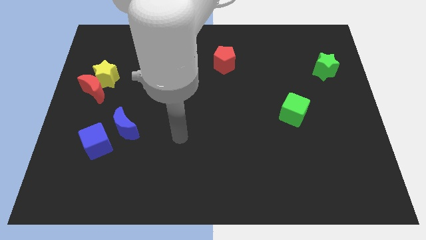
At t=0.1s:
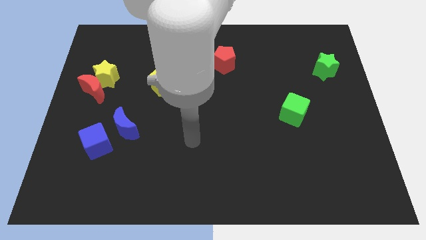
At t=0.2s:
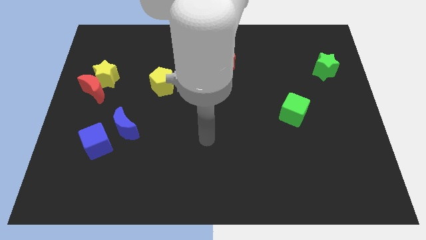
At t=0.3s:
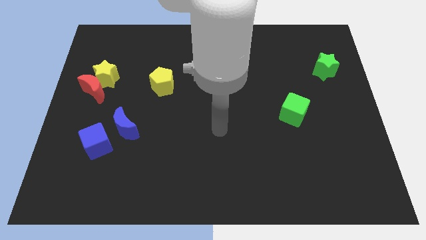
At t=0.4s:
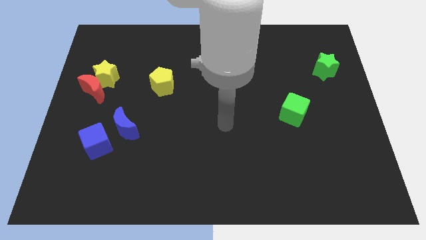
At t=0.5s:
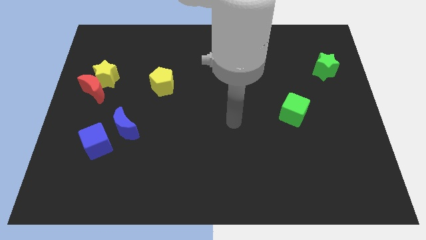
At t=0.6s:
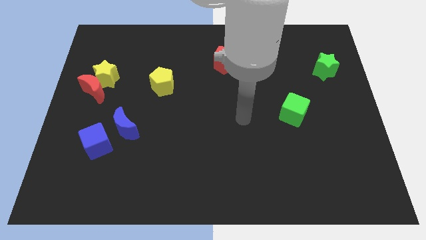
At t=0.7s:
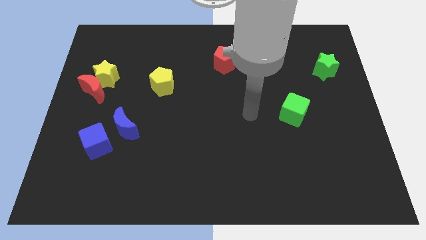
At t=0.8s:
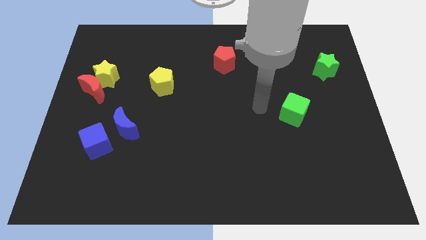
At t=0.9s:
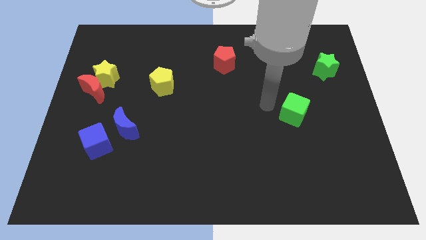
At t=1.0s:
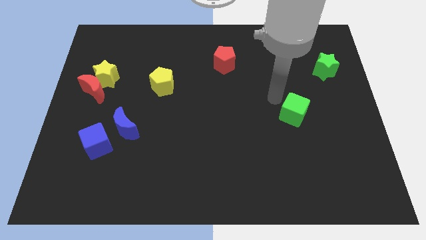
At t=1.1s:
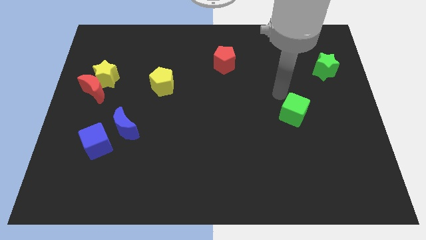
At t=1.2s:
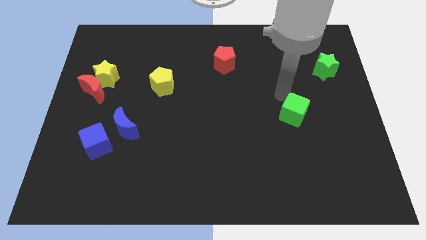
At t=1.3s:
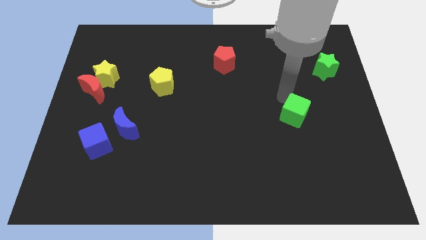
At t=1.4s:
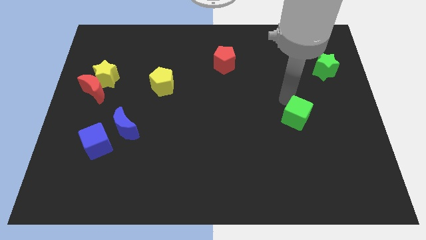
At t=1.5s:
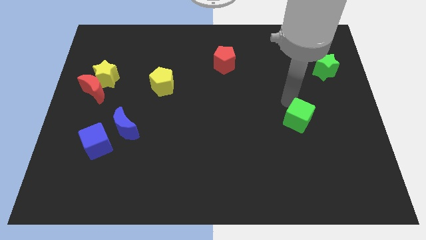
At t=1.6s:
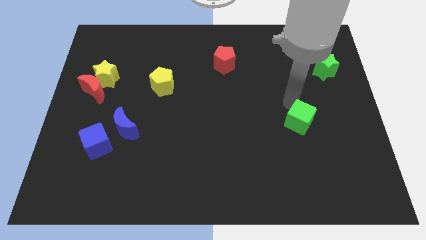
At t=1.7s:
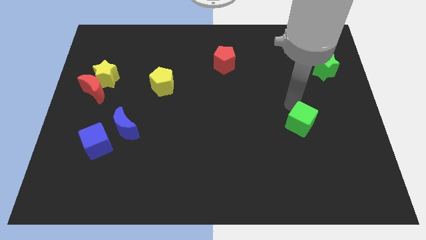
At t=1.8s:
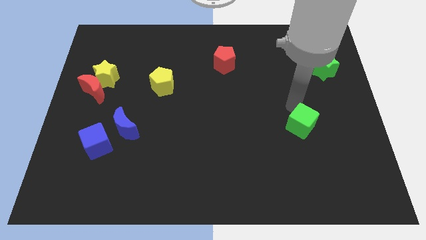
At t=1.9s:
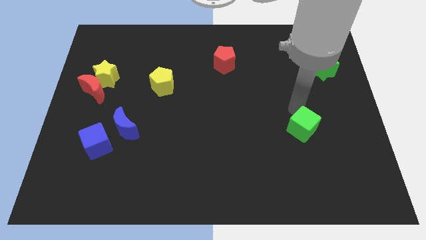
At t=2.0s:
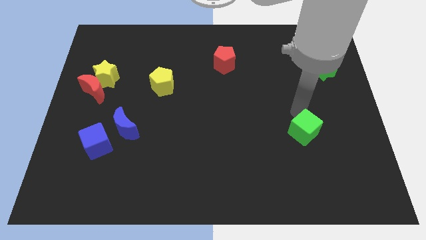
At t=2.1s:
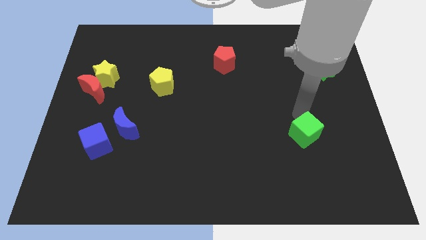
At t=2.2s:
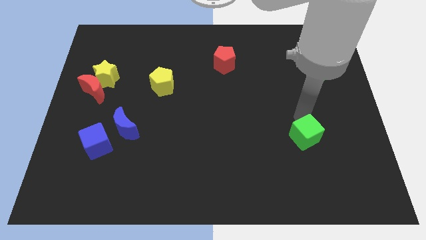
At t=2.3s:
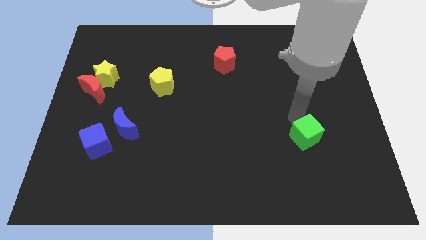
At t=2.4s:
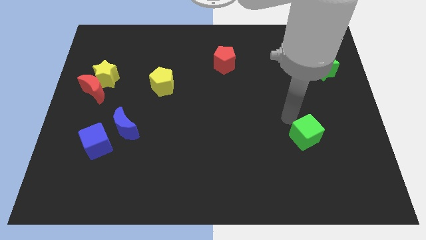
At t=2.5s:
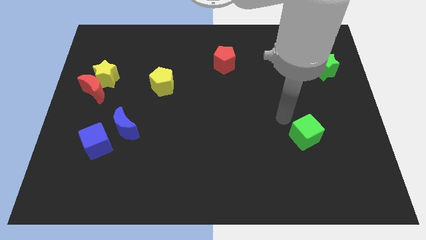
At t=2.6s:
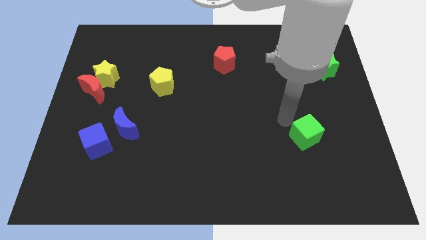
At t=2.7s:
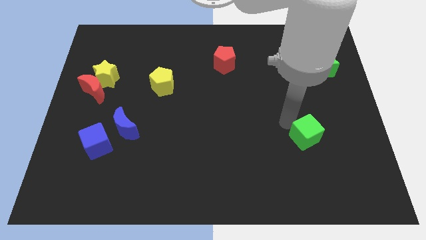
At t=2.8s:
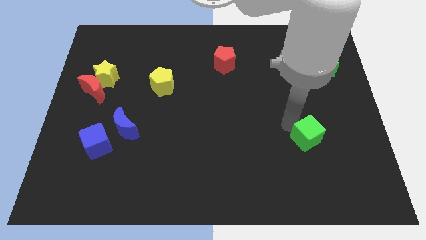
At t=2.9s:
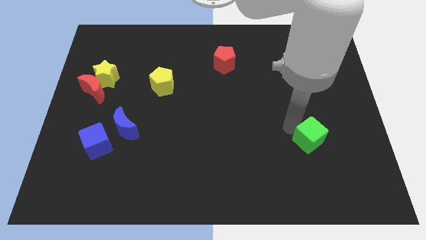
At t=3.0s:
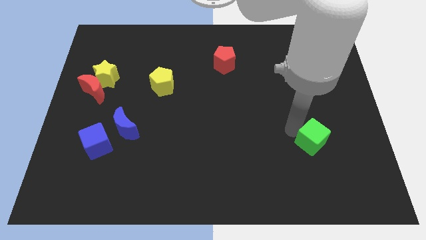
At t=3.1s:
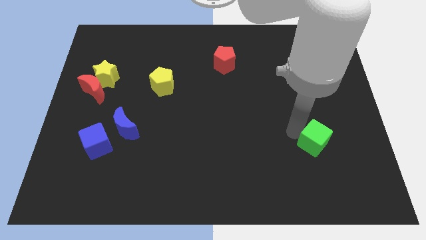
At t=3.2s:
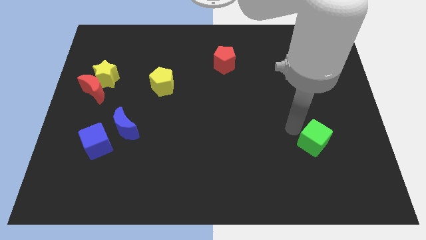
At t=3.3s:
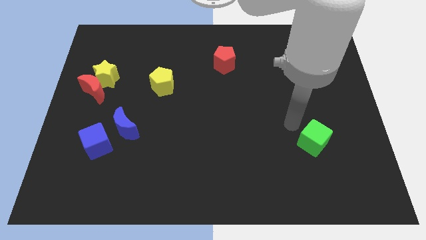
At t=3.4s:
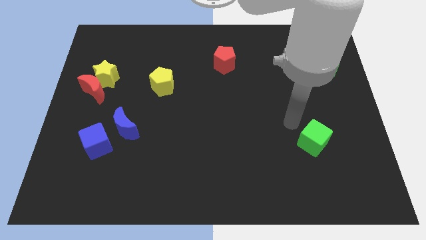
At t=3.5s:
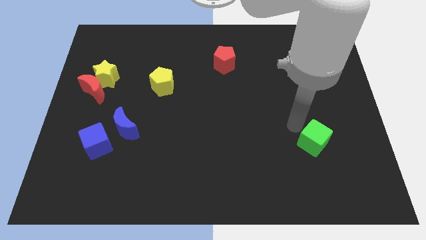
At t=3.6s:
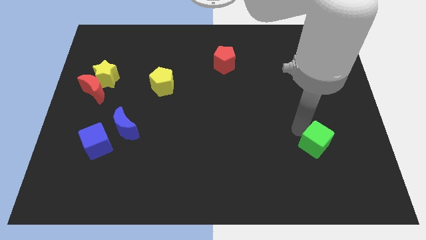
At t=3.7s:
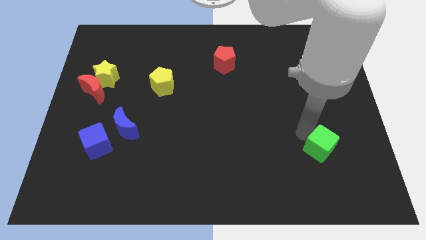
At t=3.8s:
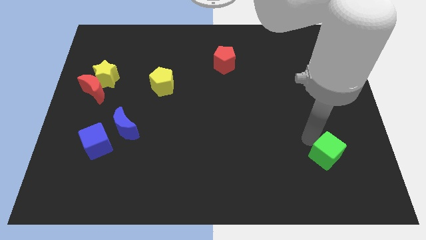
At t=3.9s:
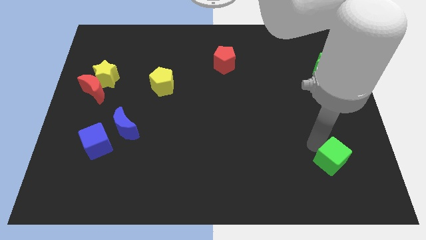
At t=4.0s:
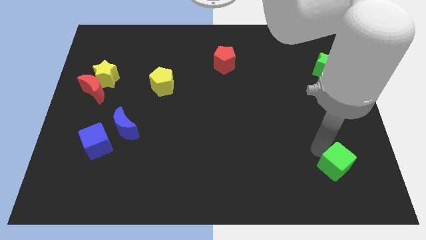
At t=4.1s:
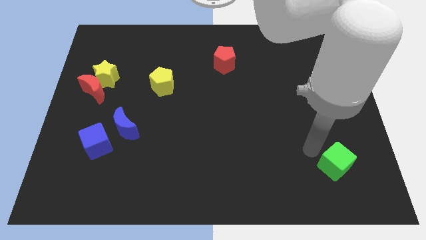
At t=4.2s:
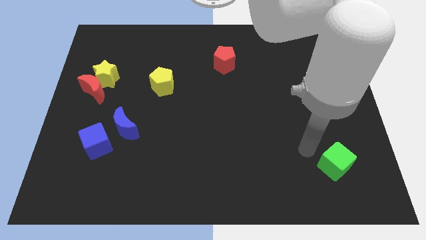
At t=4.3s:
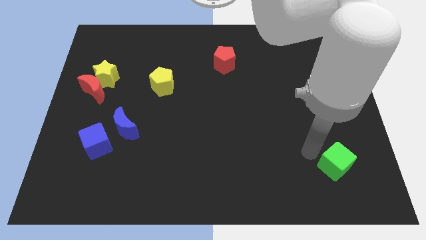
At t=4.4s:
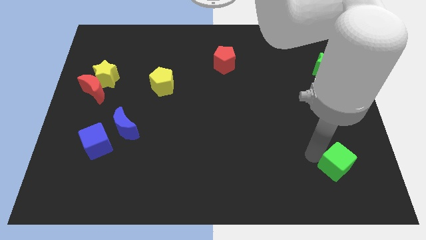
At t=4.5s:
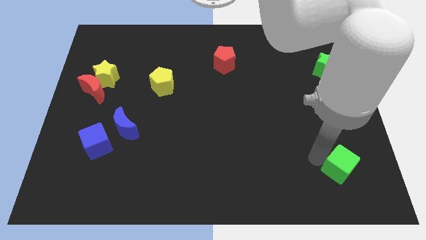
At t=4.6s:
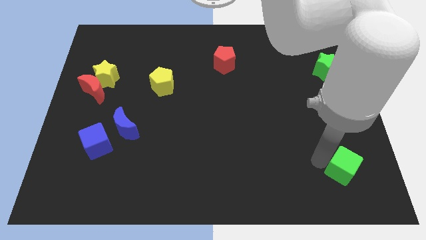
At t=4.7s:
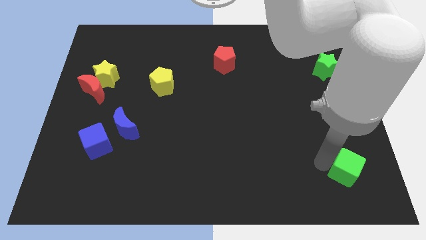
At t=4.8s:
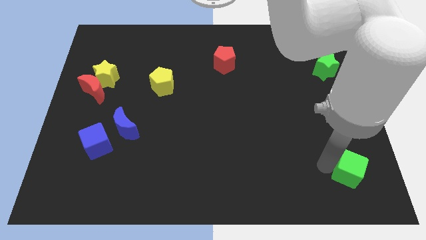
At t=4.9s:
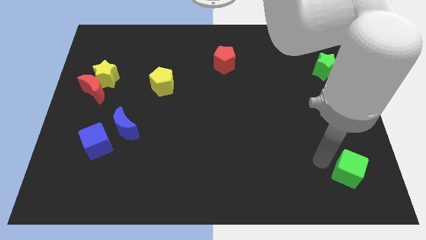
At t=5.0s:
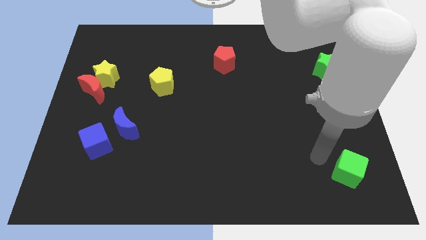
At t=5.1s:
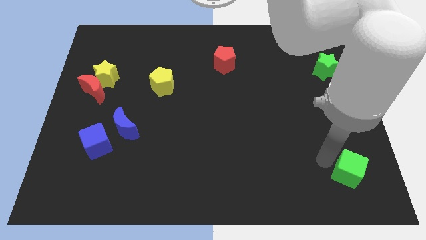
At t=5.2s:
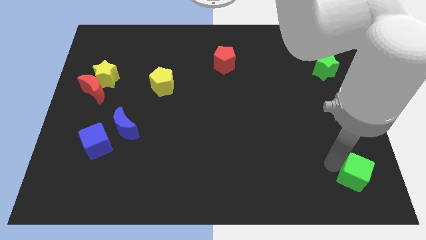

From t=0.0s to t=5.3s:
move the green cube to the bottom right

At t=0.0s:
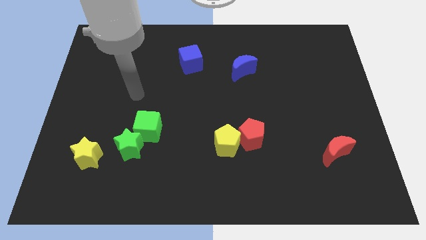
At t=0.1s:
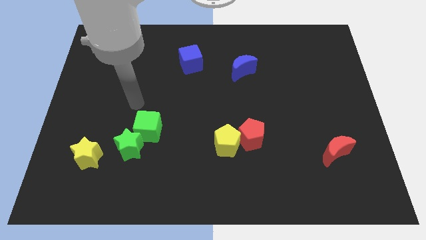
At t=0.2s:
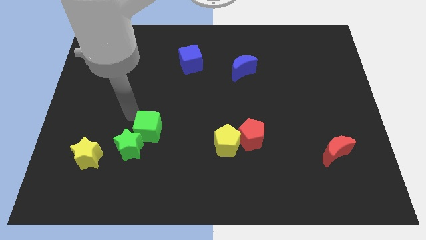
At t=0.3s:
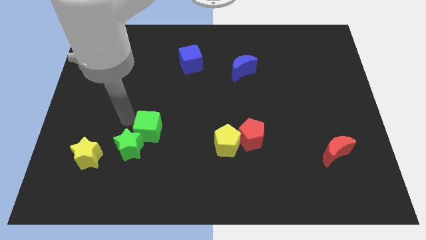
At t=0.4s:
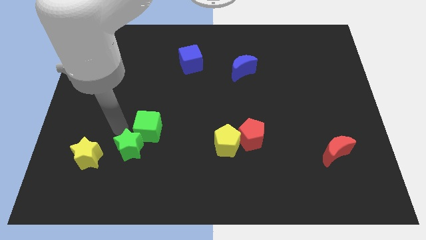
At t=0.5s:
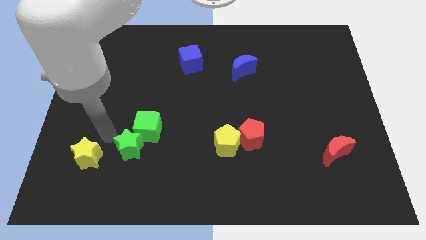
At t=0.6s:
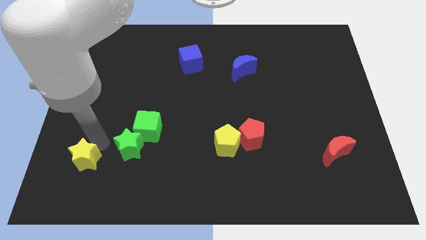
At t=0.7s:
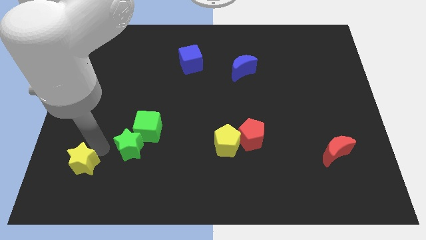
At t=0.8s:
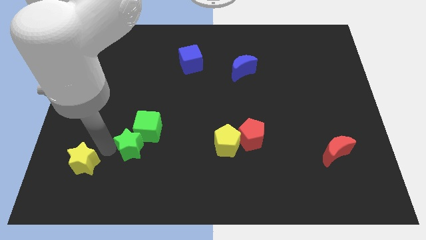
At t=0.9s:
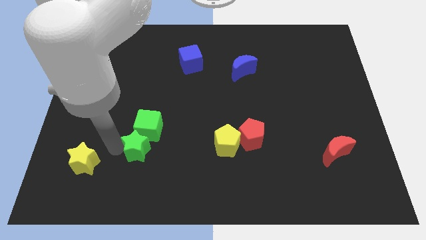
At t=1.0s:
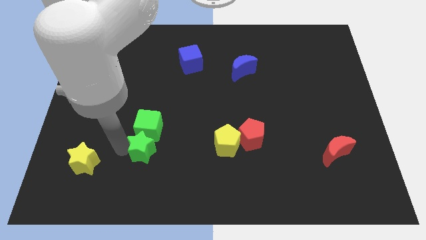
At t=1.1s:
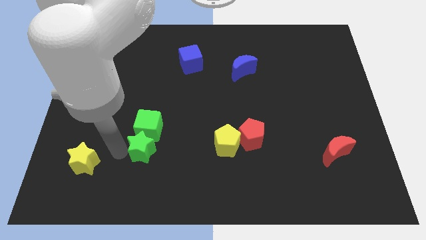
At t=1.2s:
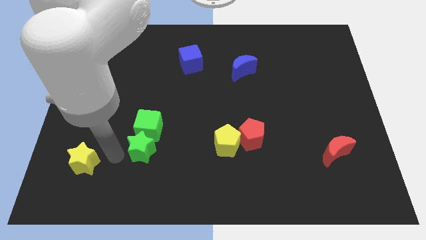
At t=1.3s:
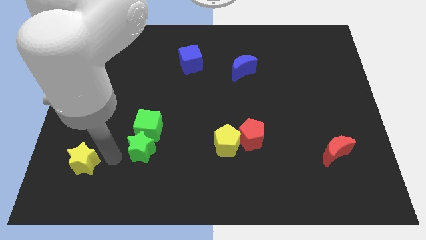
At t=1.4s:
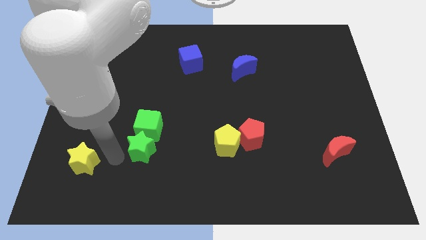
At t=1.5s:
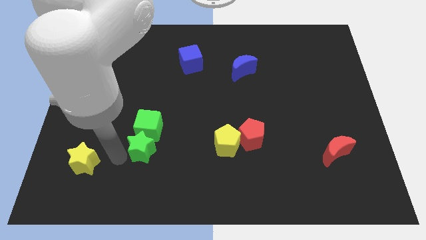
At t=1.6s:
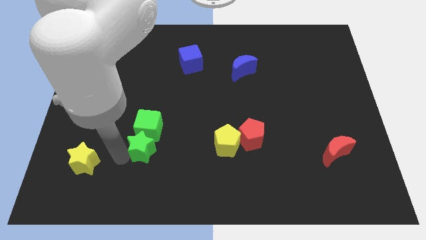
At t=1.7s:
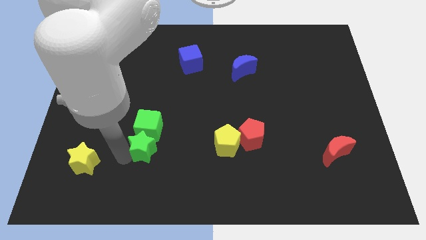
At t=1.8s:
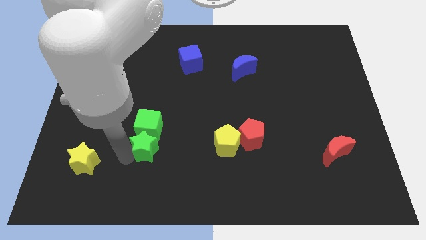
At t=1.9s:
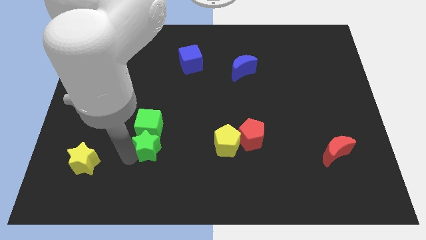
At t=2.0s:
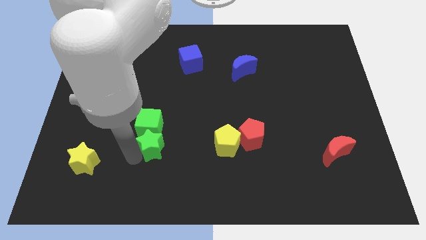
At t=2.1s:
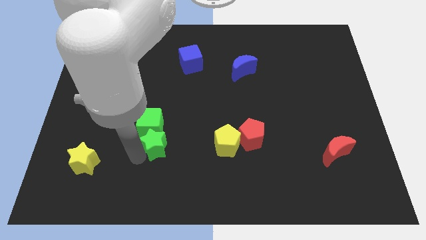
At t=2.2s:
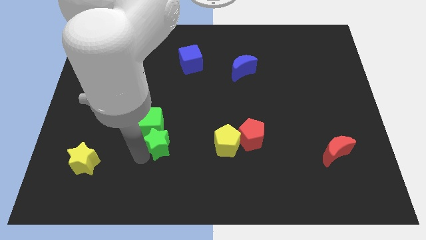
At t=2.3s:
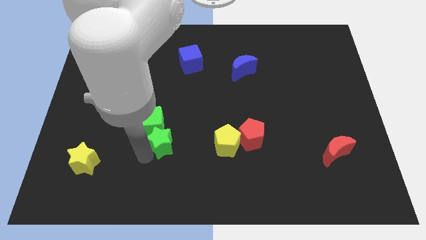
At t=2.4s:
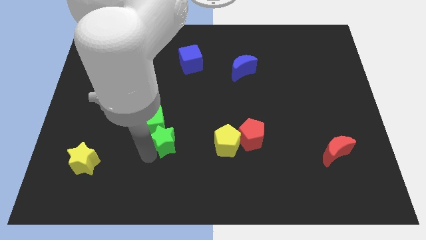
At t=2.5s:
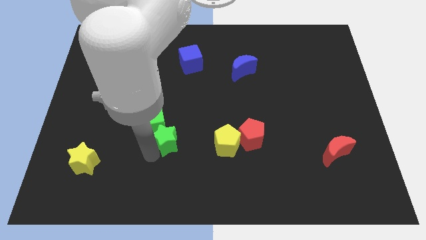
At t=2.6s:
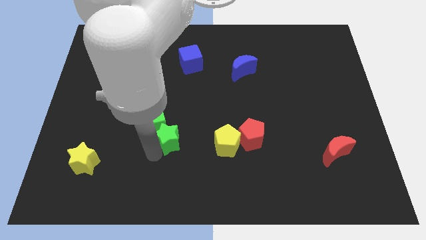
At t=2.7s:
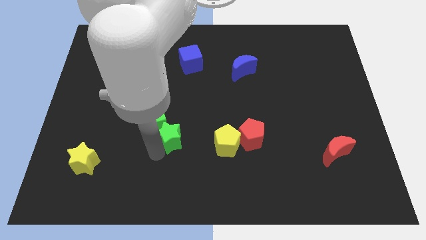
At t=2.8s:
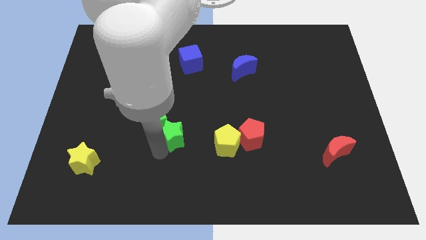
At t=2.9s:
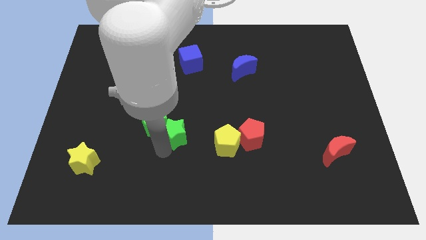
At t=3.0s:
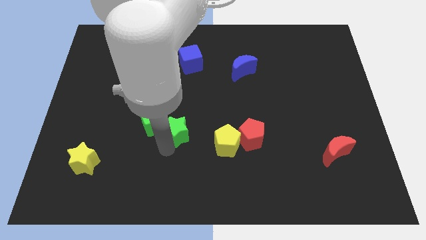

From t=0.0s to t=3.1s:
push the green star to the center of the board
